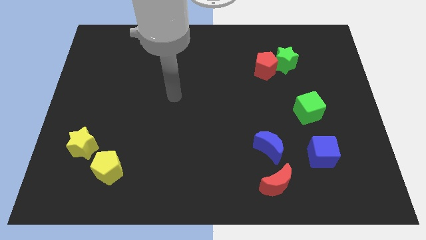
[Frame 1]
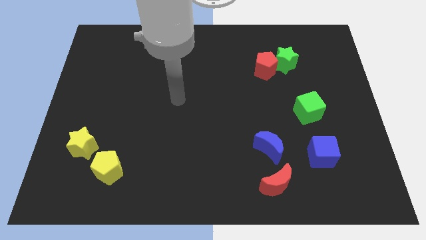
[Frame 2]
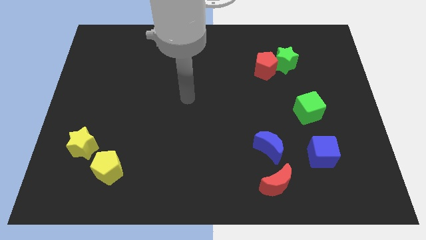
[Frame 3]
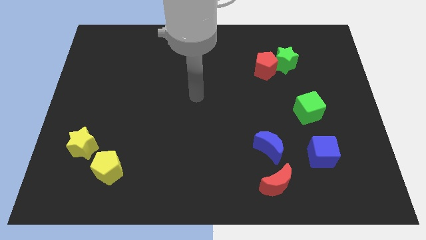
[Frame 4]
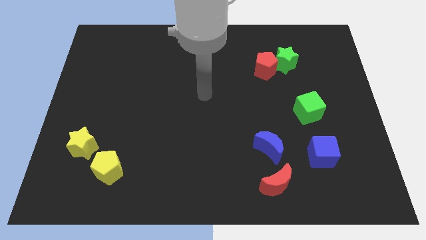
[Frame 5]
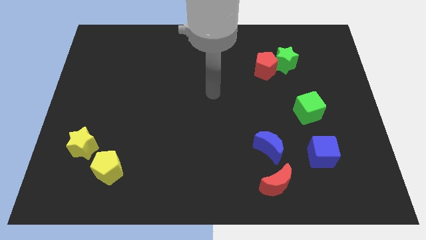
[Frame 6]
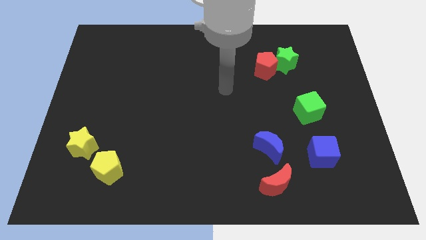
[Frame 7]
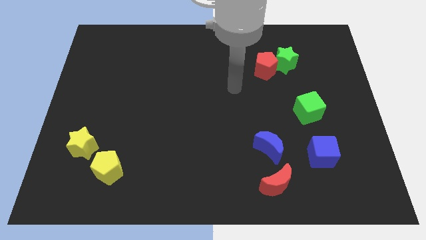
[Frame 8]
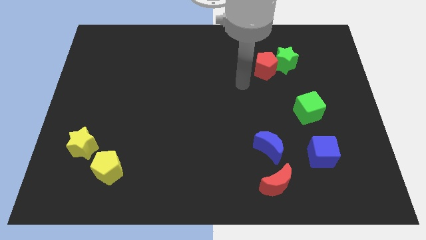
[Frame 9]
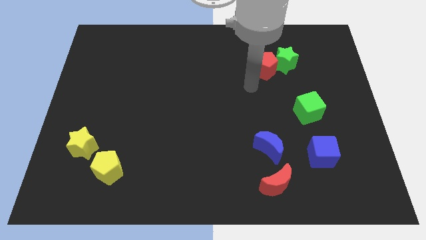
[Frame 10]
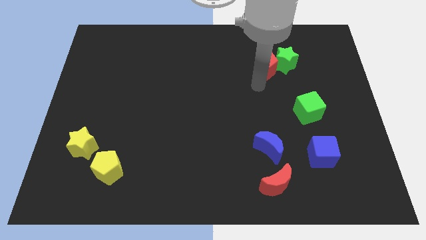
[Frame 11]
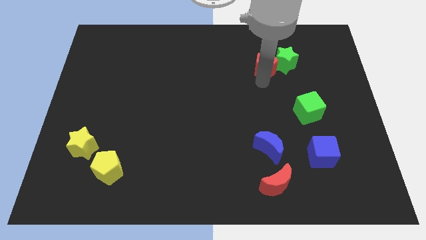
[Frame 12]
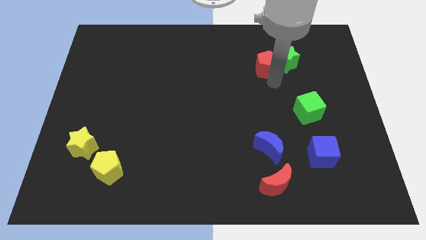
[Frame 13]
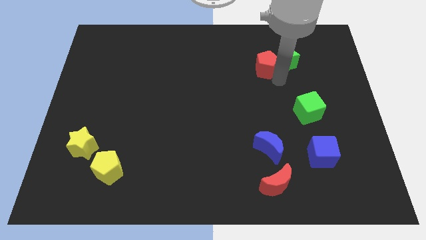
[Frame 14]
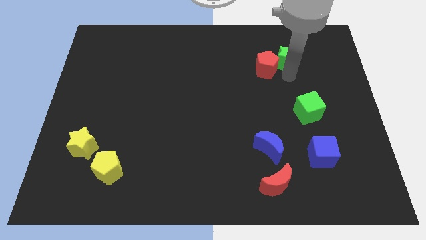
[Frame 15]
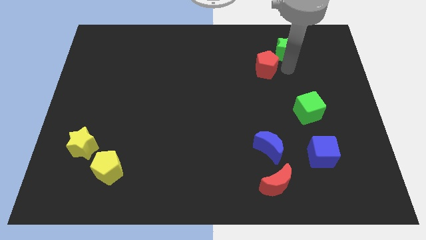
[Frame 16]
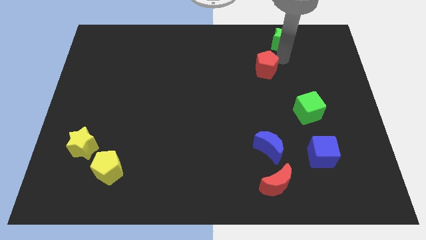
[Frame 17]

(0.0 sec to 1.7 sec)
move the red pentagon away from the green star

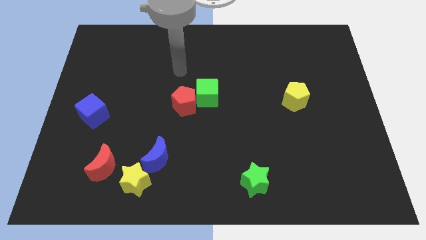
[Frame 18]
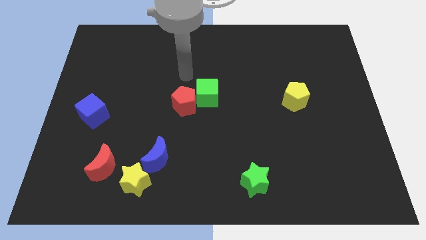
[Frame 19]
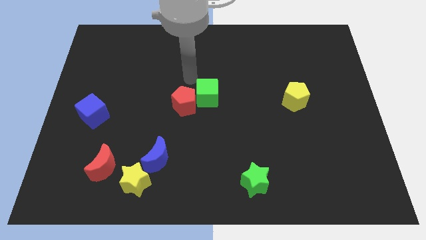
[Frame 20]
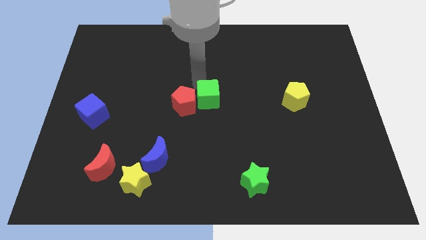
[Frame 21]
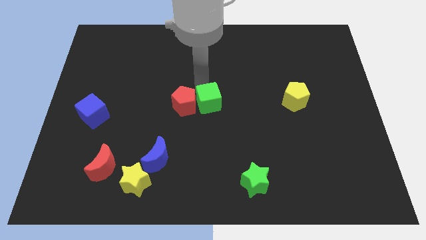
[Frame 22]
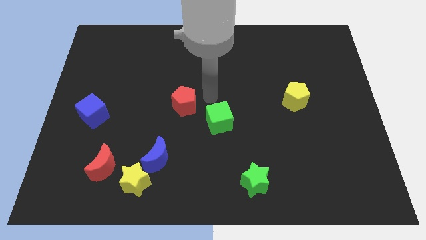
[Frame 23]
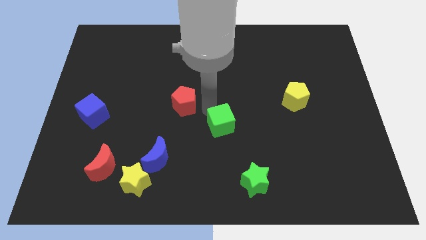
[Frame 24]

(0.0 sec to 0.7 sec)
pull the red pentagon apart from the green cube

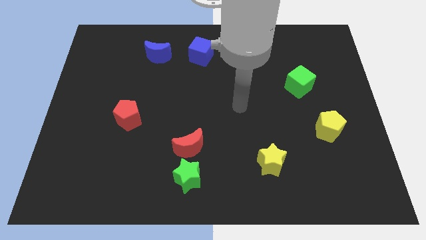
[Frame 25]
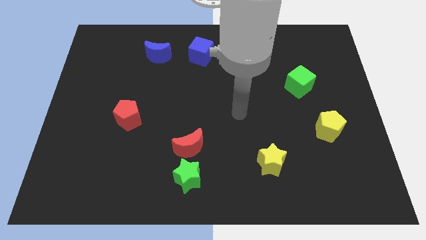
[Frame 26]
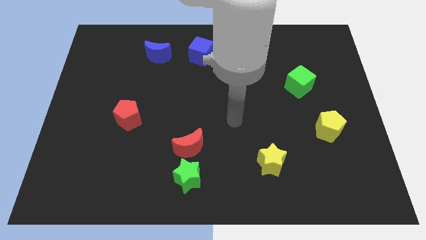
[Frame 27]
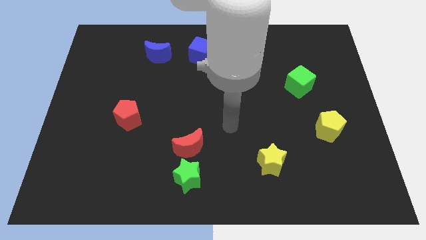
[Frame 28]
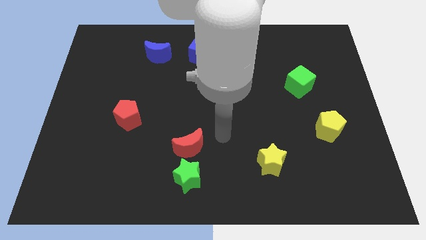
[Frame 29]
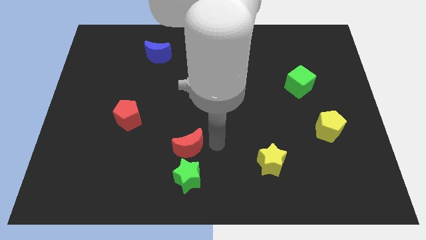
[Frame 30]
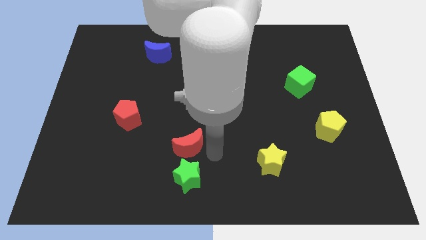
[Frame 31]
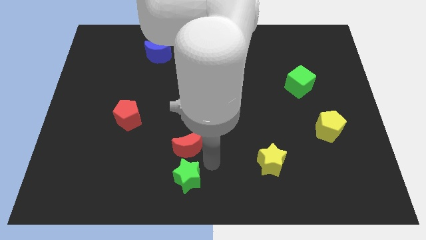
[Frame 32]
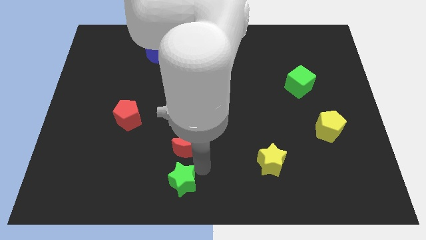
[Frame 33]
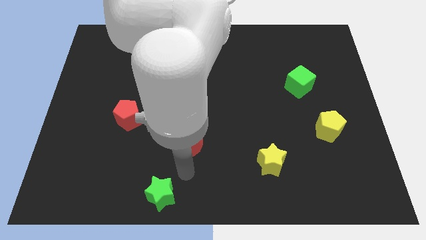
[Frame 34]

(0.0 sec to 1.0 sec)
separate the red moon from the green star

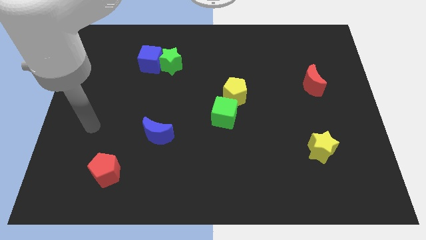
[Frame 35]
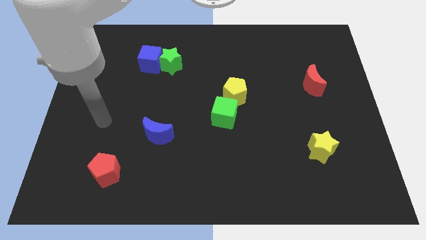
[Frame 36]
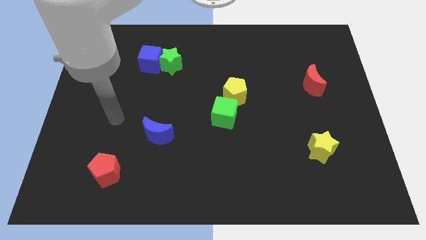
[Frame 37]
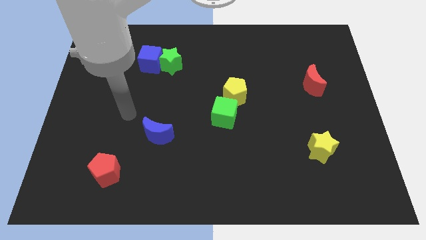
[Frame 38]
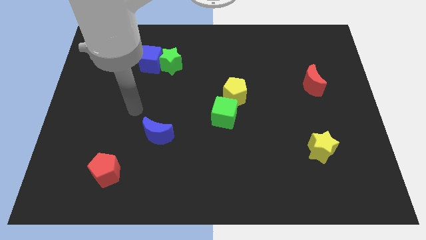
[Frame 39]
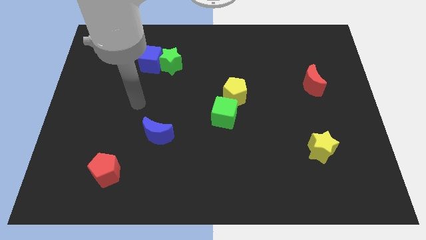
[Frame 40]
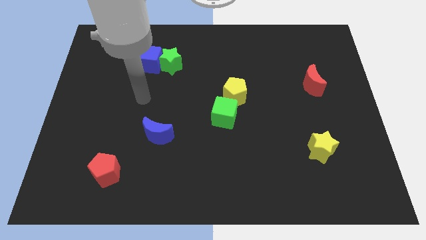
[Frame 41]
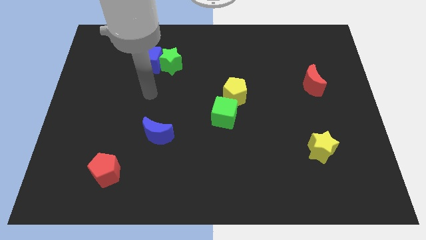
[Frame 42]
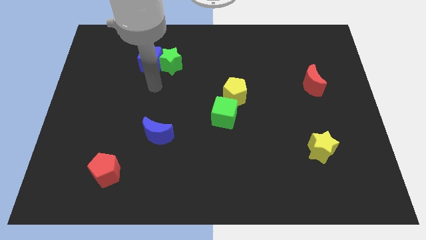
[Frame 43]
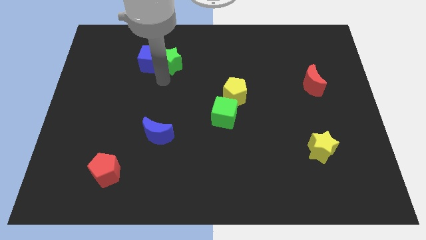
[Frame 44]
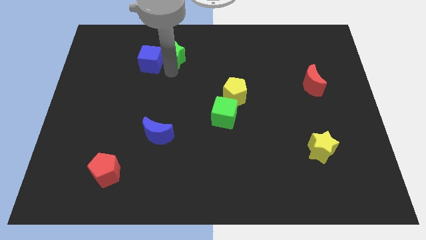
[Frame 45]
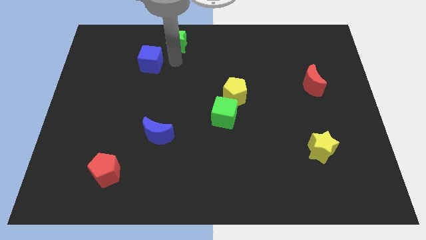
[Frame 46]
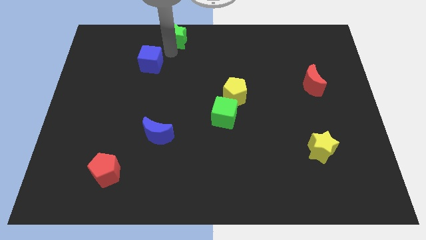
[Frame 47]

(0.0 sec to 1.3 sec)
separate the blue cube from the green star

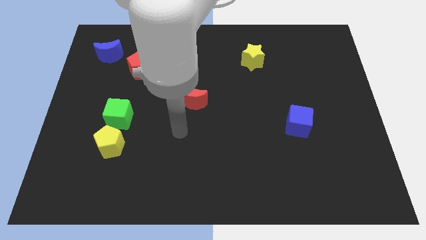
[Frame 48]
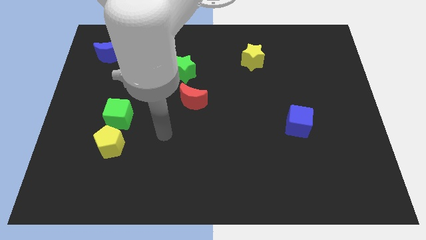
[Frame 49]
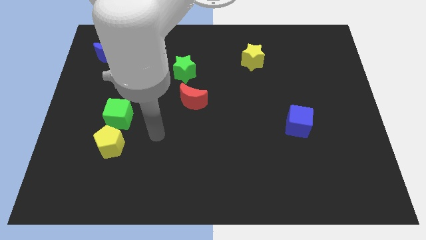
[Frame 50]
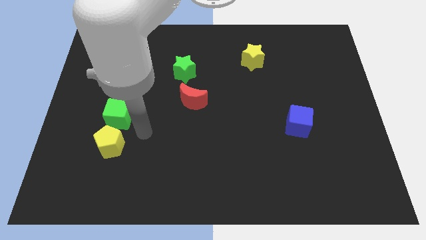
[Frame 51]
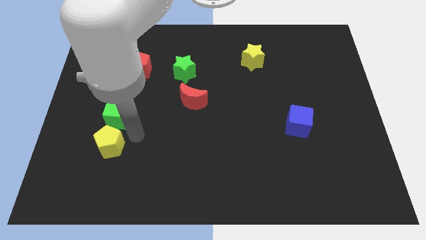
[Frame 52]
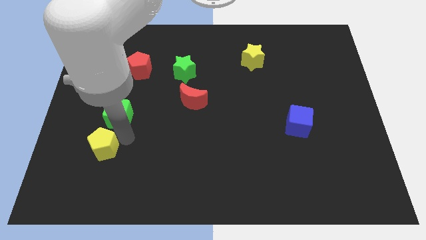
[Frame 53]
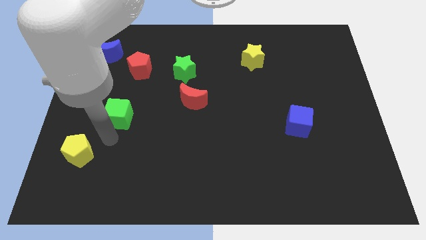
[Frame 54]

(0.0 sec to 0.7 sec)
separate the green cube from the yellow pentagon

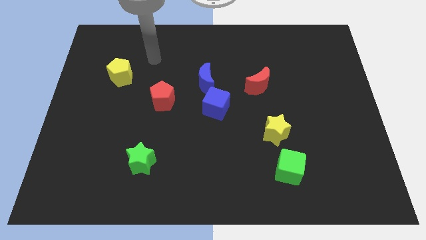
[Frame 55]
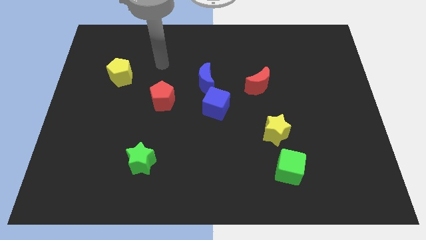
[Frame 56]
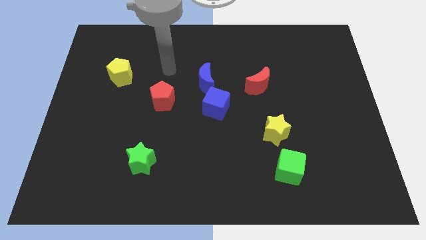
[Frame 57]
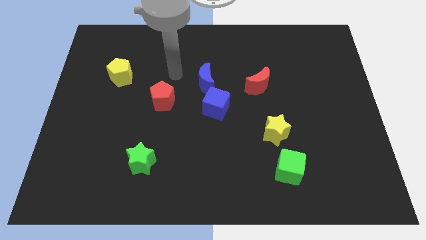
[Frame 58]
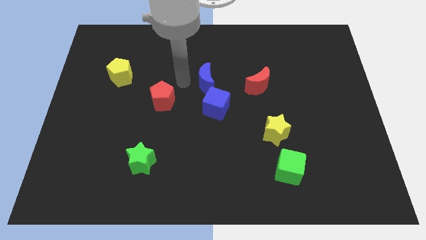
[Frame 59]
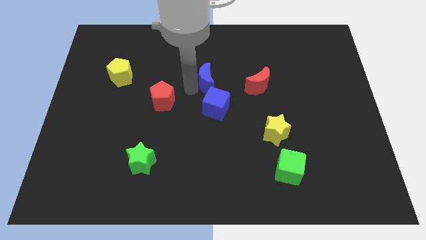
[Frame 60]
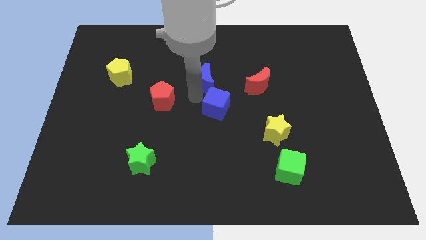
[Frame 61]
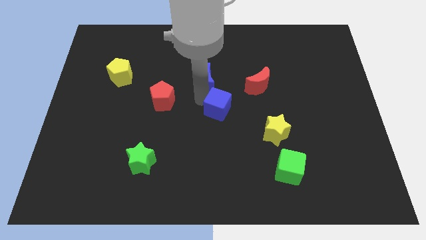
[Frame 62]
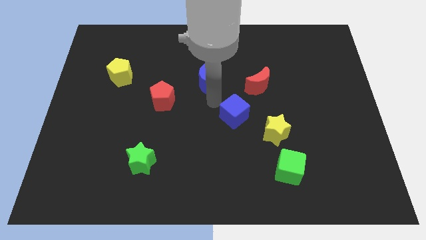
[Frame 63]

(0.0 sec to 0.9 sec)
pull the blue moon apart from the blue cube

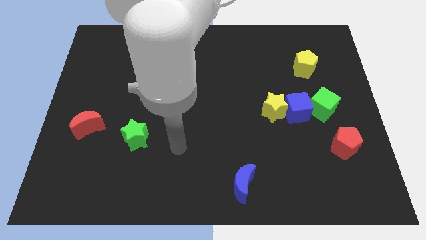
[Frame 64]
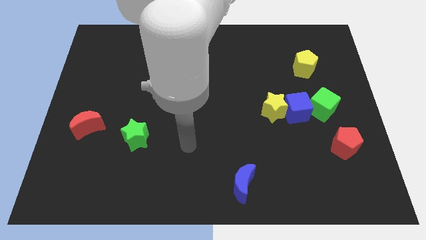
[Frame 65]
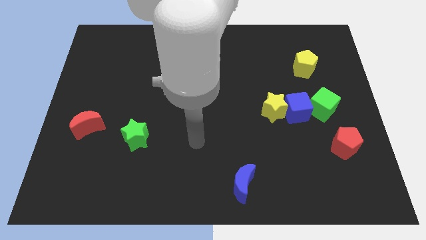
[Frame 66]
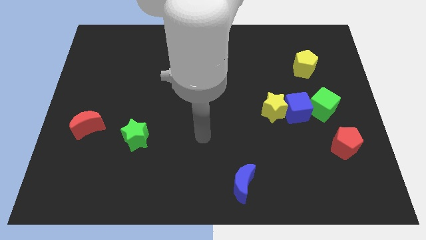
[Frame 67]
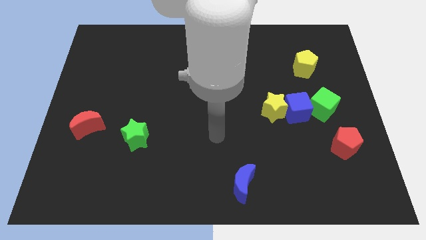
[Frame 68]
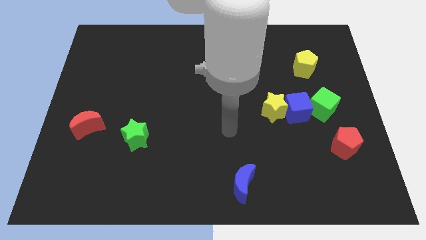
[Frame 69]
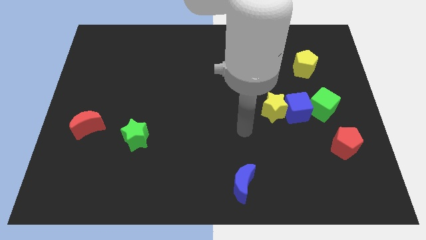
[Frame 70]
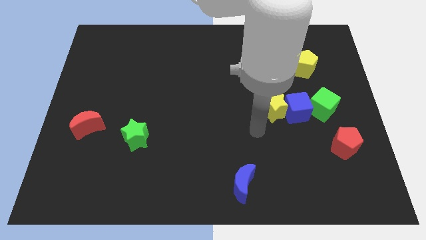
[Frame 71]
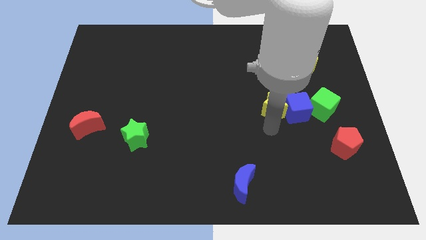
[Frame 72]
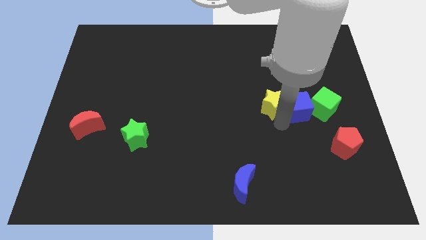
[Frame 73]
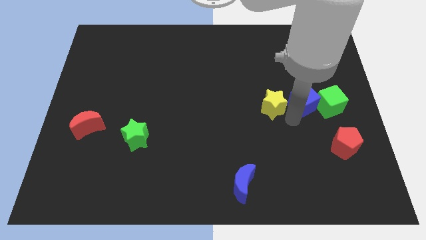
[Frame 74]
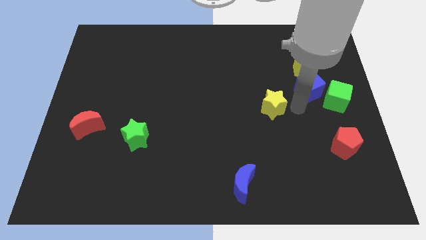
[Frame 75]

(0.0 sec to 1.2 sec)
move the yellow star away from the blue cube

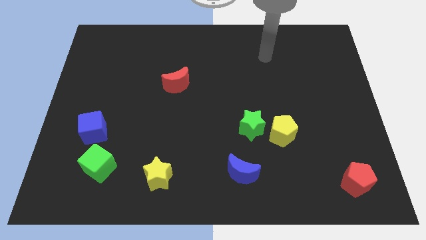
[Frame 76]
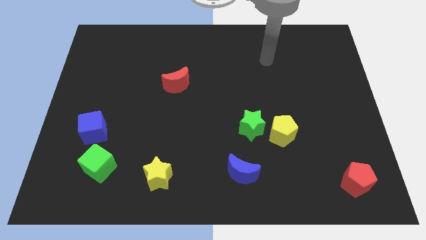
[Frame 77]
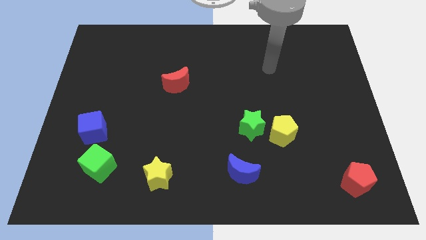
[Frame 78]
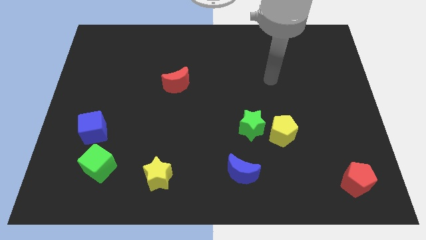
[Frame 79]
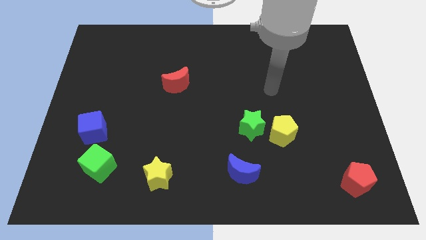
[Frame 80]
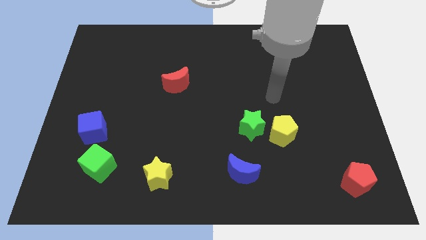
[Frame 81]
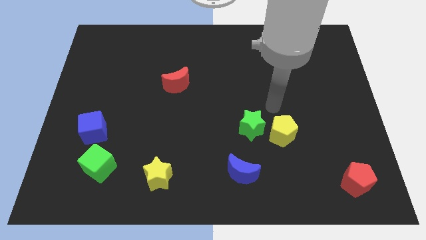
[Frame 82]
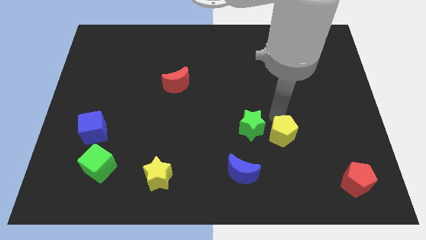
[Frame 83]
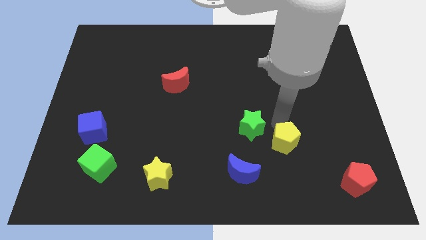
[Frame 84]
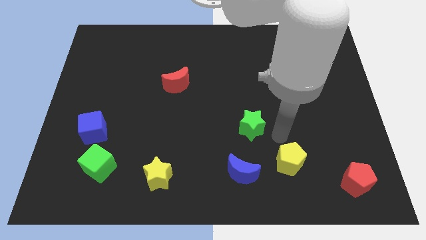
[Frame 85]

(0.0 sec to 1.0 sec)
separate the green star from the yellow pentagon

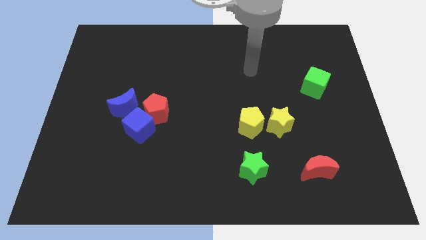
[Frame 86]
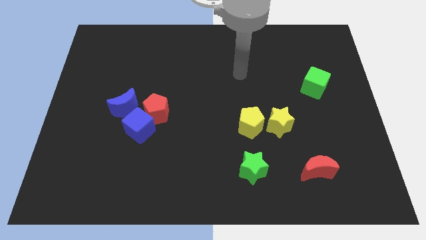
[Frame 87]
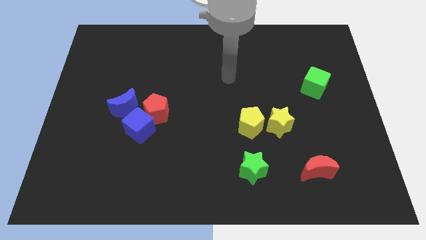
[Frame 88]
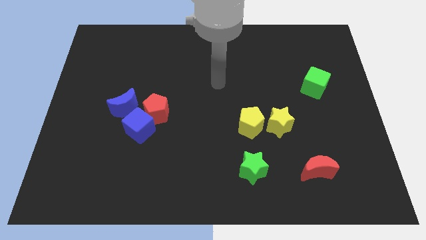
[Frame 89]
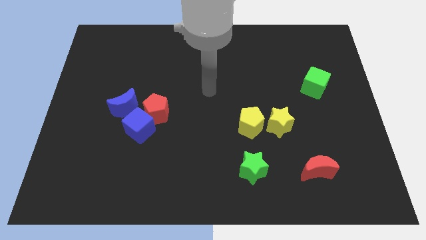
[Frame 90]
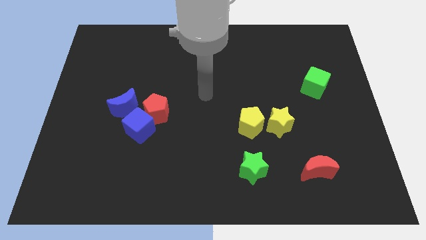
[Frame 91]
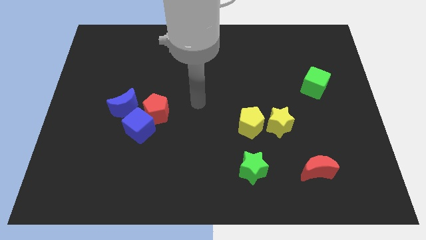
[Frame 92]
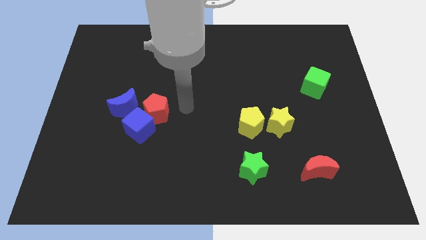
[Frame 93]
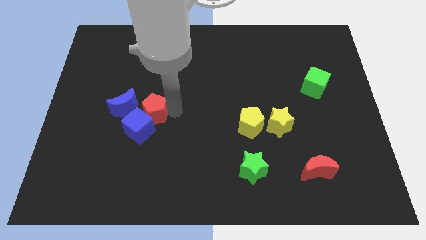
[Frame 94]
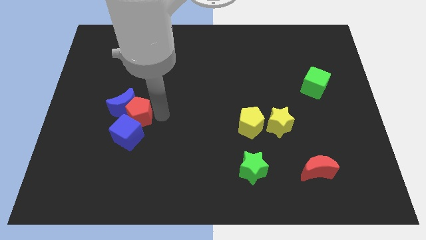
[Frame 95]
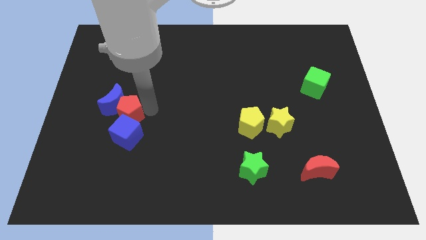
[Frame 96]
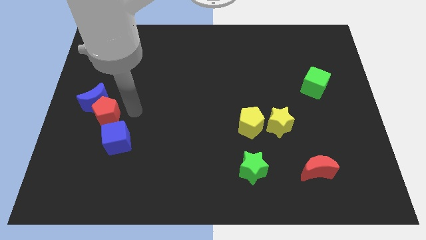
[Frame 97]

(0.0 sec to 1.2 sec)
move the blue cube away from the red pentagon and blue moon
